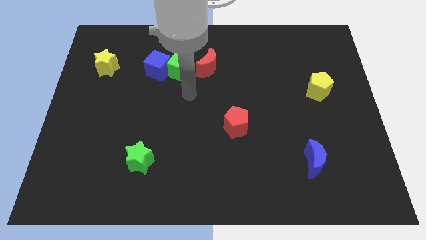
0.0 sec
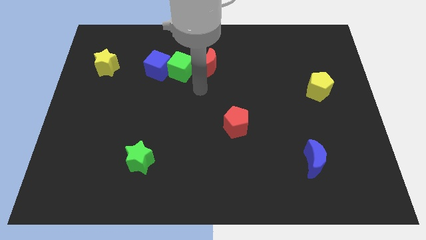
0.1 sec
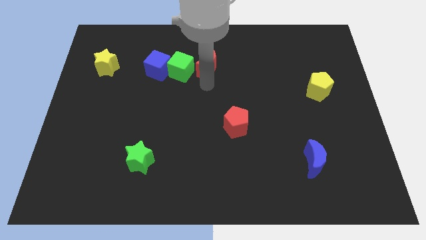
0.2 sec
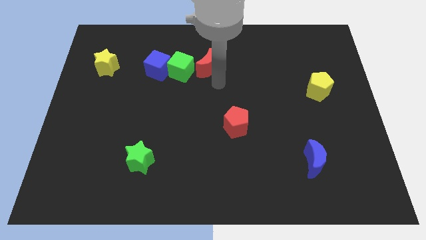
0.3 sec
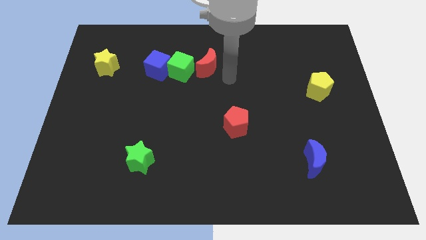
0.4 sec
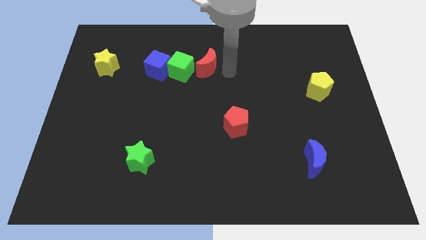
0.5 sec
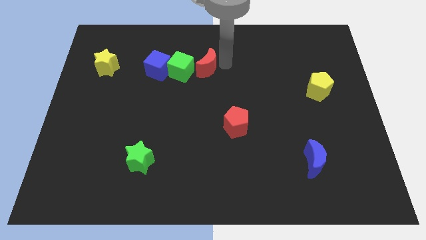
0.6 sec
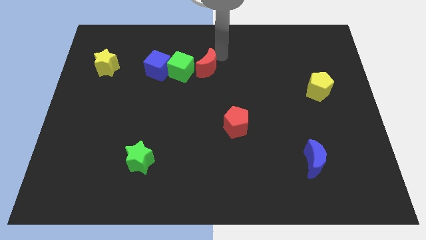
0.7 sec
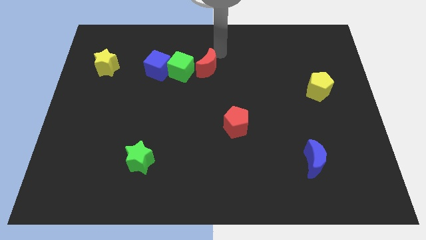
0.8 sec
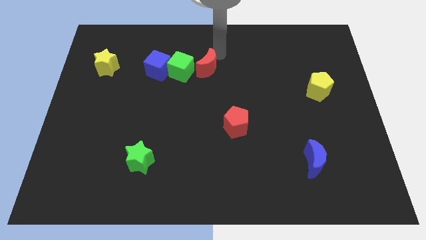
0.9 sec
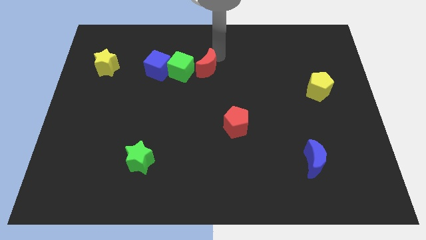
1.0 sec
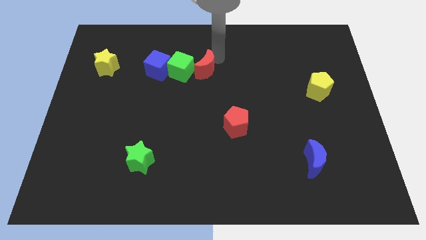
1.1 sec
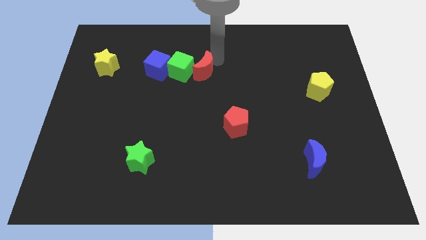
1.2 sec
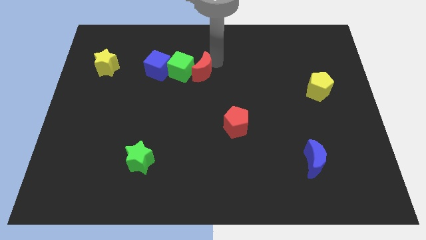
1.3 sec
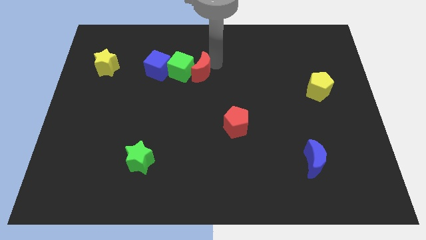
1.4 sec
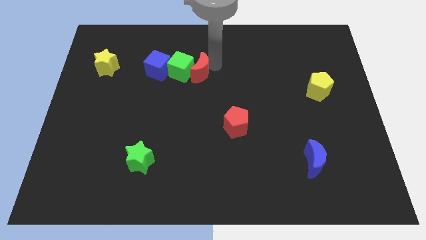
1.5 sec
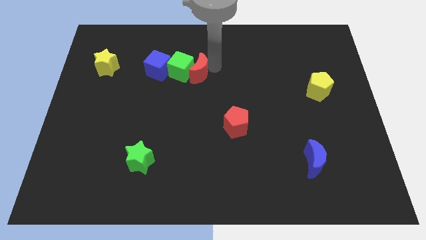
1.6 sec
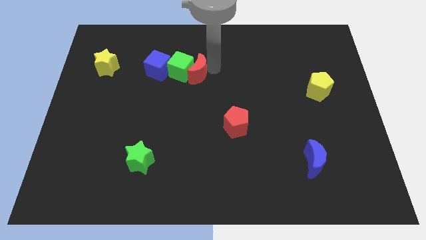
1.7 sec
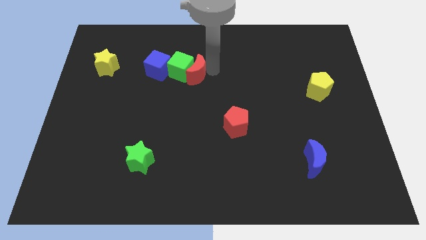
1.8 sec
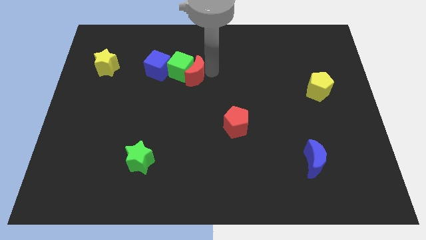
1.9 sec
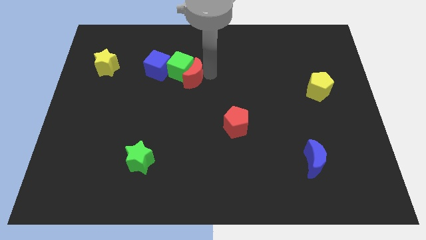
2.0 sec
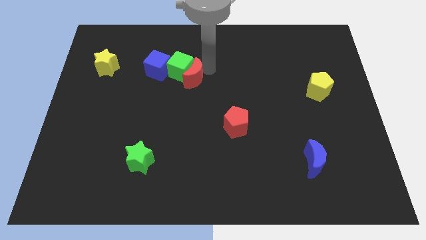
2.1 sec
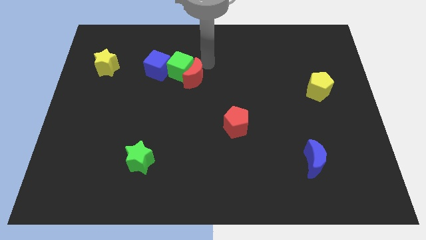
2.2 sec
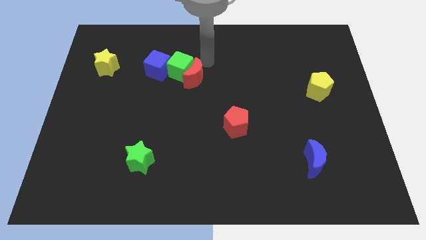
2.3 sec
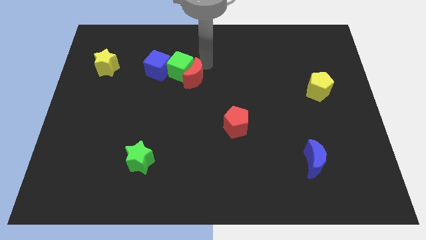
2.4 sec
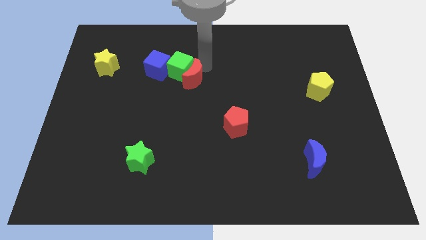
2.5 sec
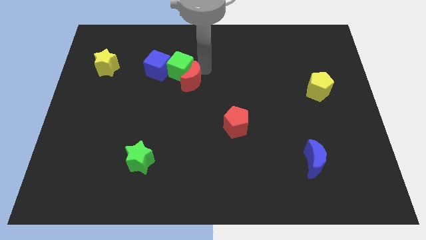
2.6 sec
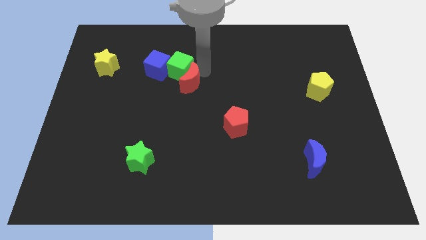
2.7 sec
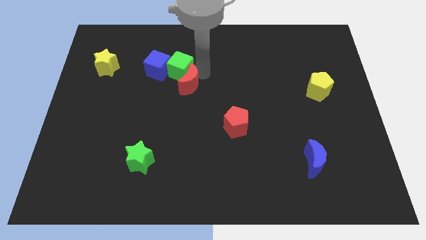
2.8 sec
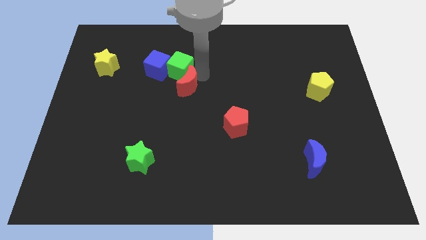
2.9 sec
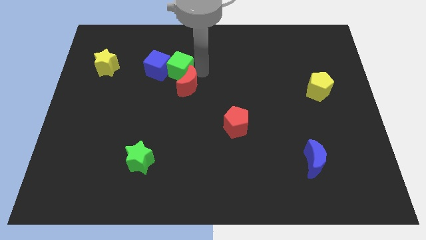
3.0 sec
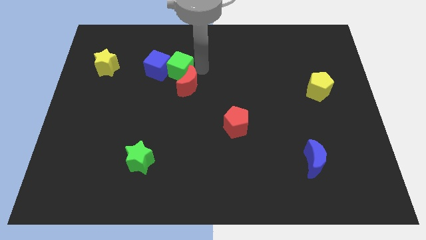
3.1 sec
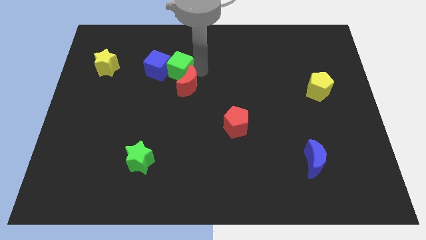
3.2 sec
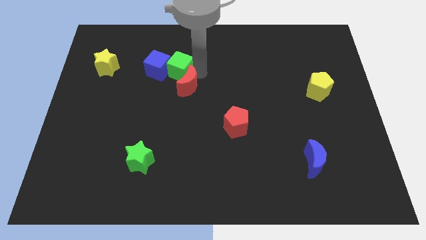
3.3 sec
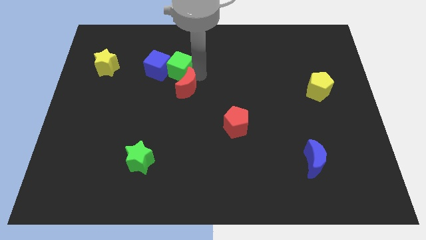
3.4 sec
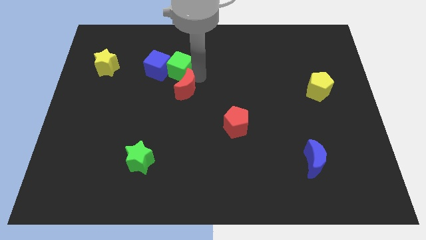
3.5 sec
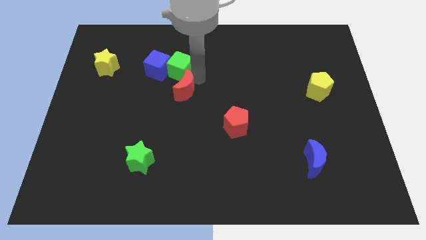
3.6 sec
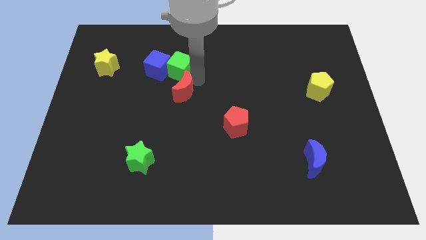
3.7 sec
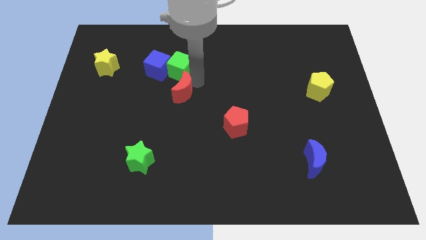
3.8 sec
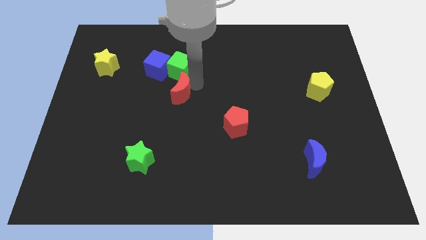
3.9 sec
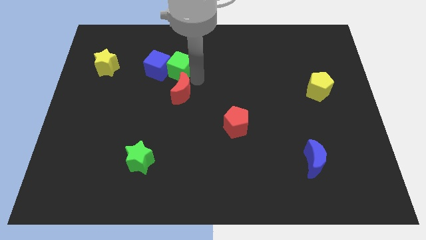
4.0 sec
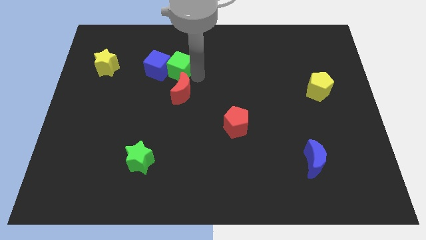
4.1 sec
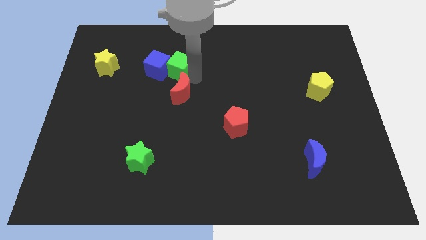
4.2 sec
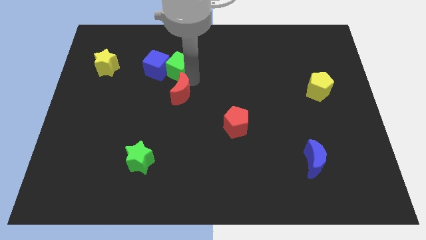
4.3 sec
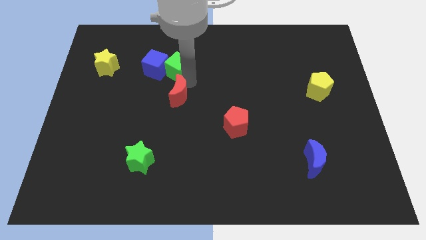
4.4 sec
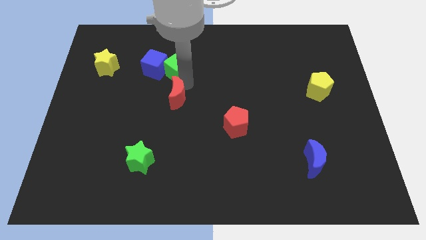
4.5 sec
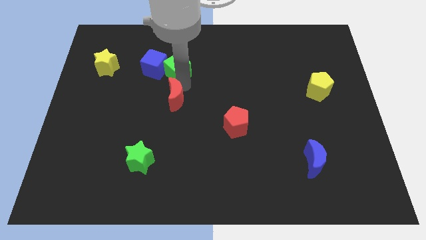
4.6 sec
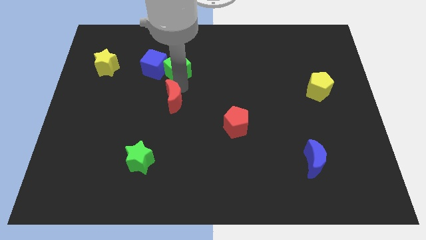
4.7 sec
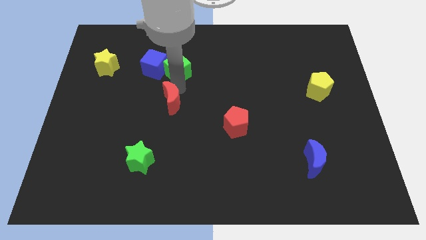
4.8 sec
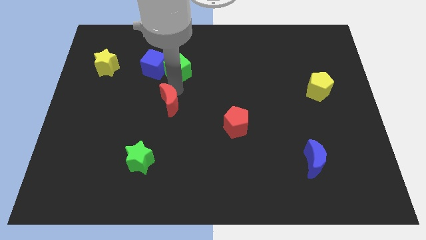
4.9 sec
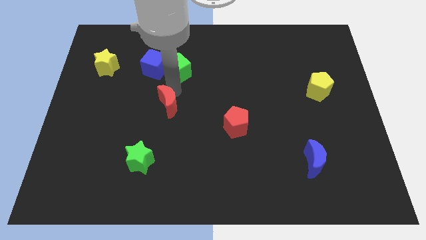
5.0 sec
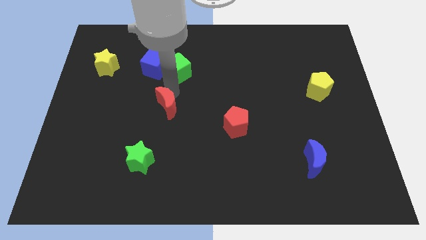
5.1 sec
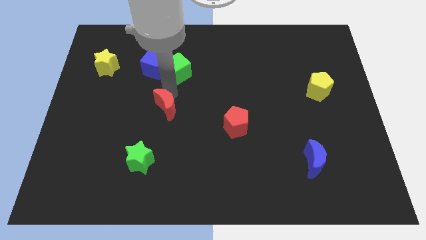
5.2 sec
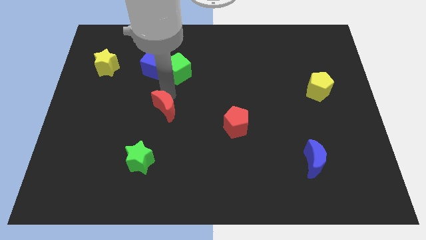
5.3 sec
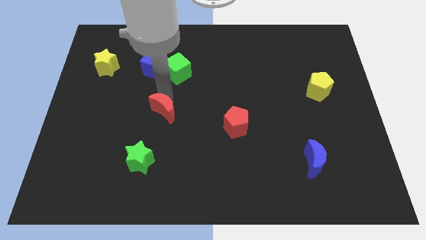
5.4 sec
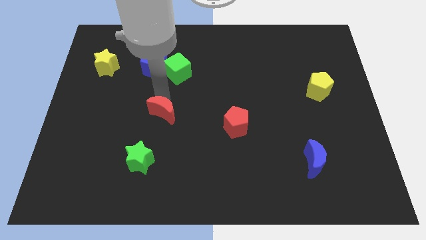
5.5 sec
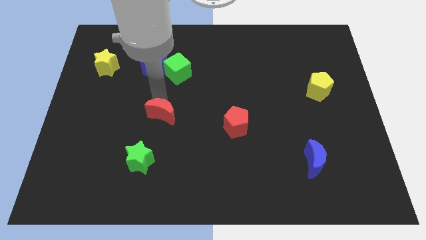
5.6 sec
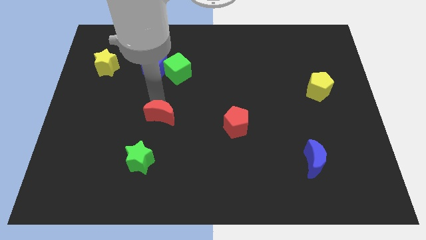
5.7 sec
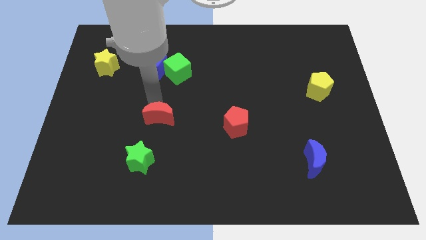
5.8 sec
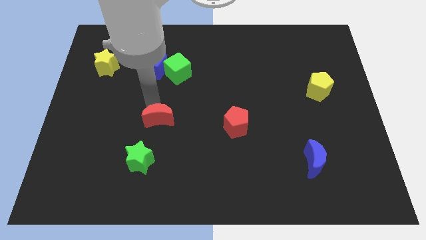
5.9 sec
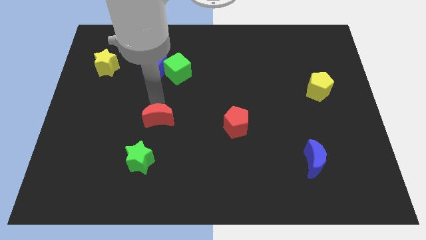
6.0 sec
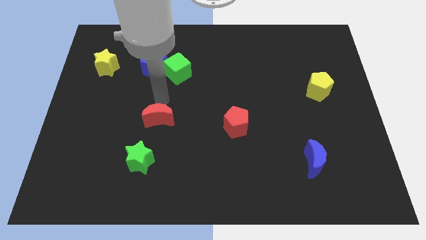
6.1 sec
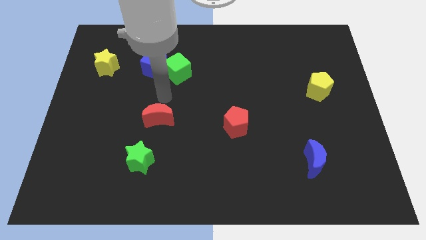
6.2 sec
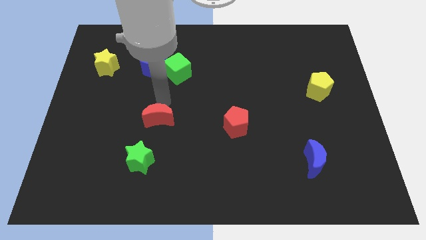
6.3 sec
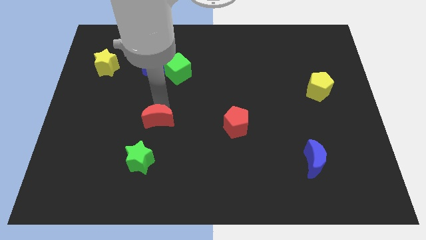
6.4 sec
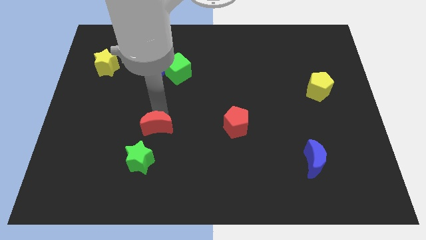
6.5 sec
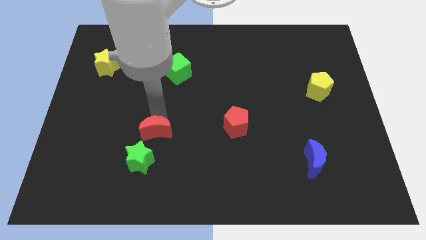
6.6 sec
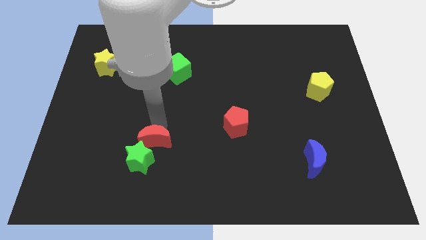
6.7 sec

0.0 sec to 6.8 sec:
put the red moon to the green star

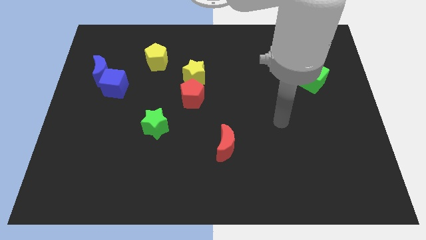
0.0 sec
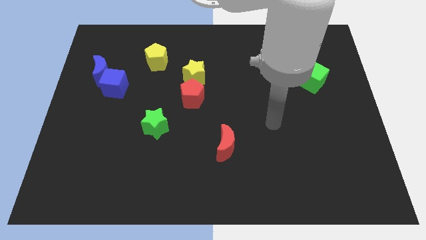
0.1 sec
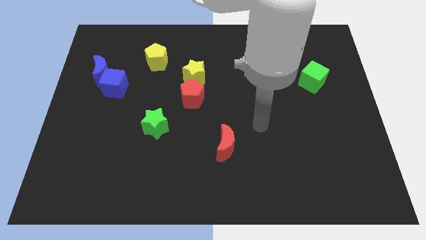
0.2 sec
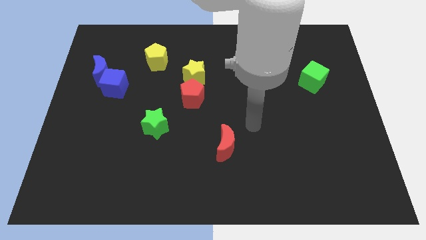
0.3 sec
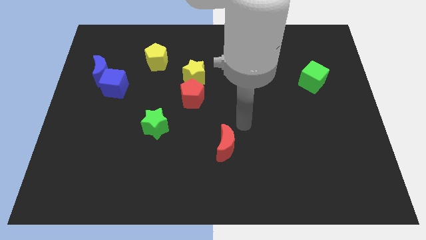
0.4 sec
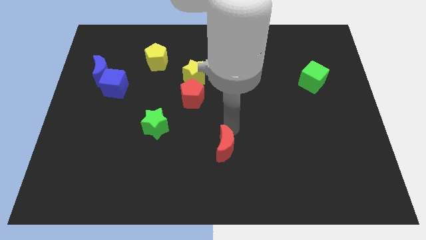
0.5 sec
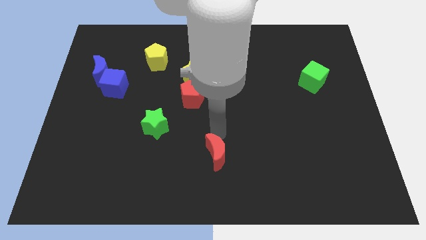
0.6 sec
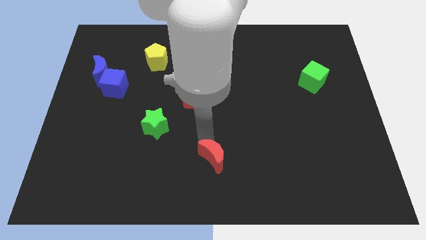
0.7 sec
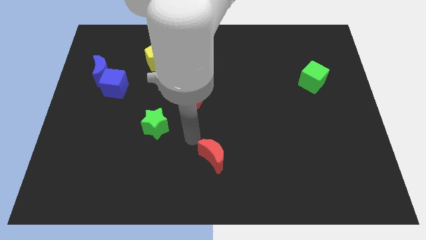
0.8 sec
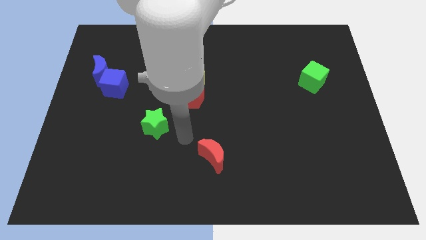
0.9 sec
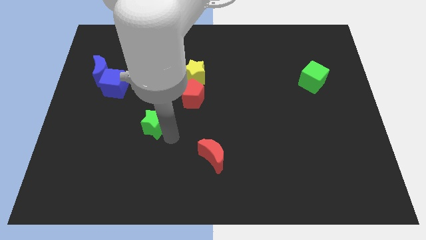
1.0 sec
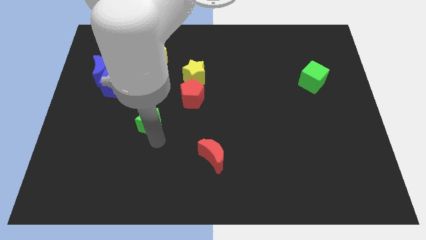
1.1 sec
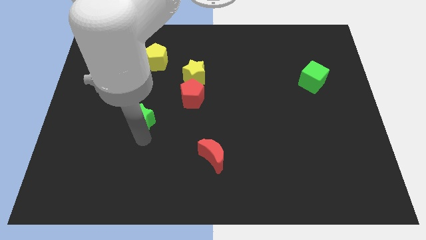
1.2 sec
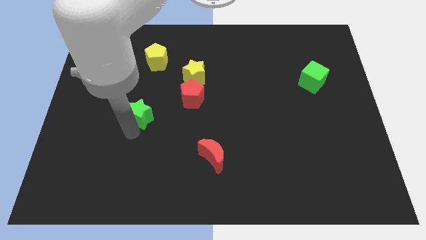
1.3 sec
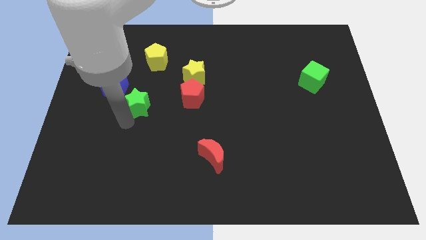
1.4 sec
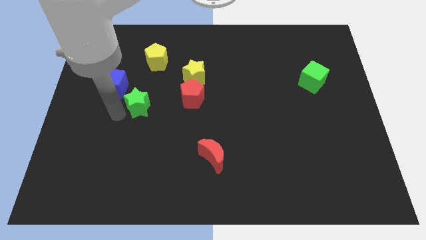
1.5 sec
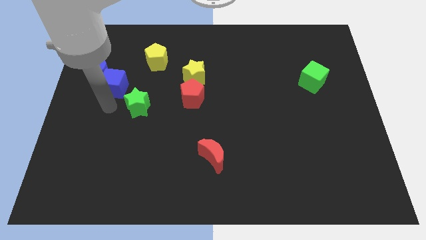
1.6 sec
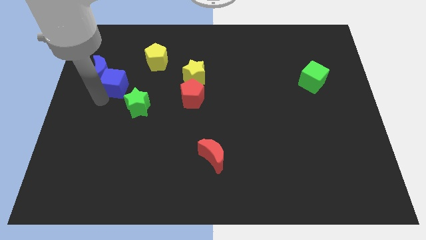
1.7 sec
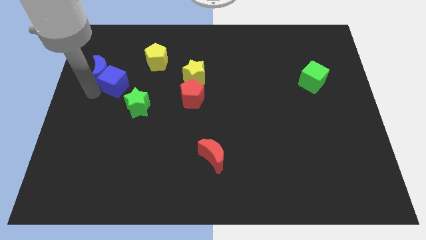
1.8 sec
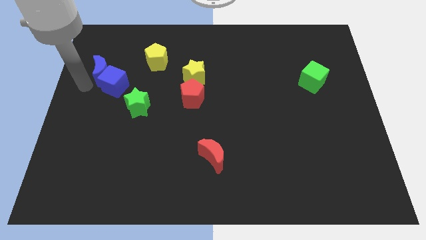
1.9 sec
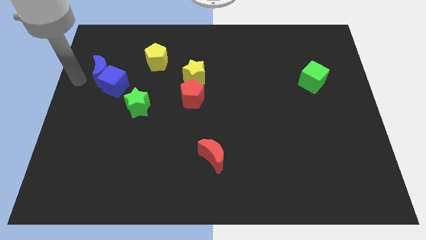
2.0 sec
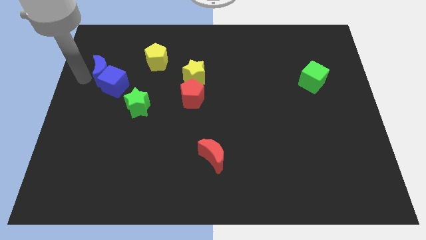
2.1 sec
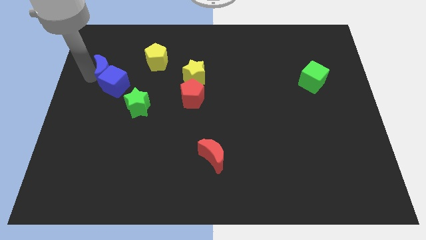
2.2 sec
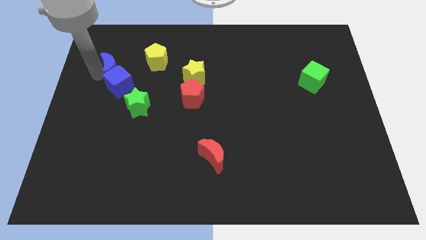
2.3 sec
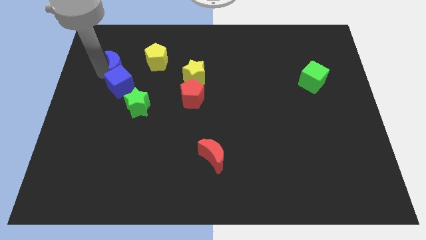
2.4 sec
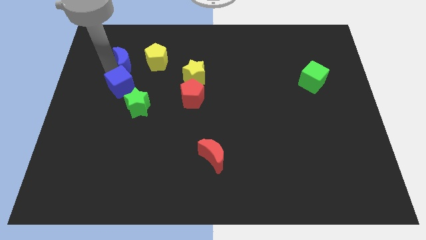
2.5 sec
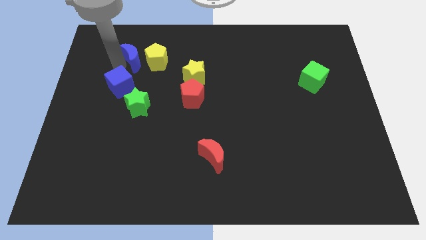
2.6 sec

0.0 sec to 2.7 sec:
slide the blue moon towards the yellow pentagon
